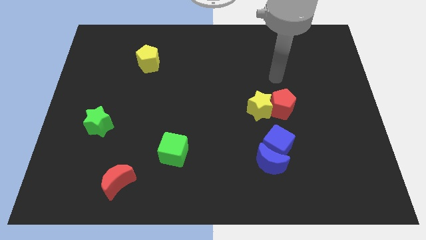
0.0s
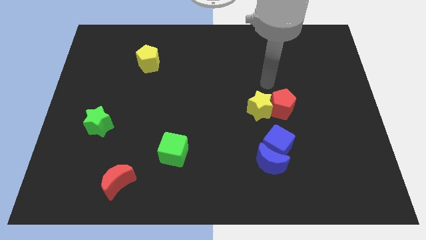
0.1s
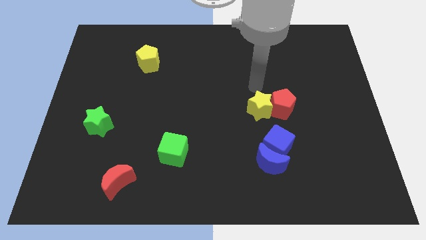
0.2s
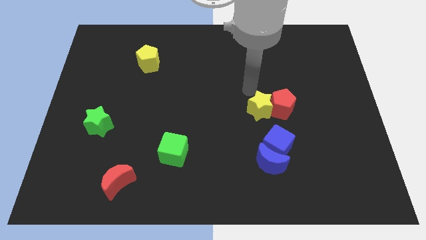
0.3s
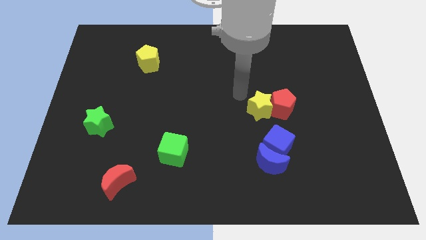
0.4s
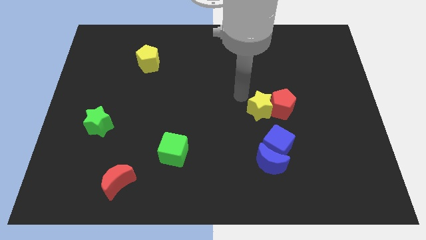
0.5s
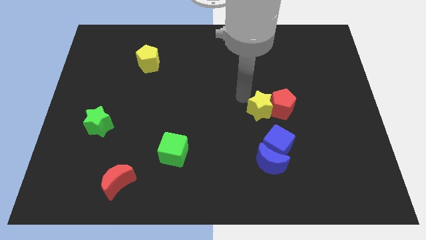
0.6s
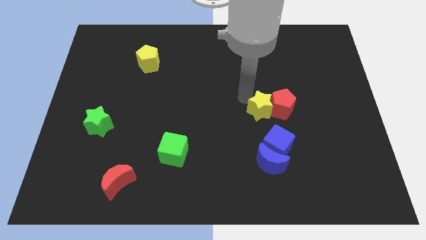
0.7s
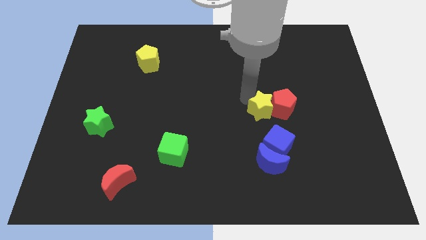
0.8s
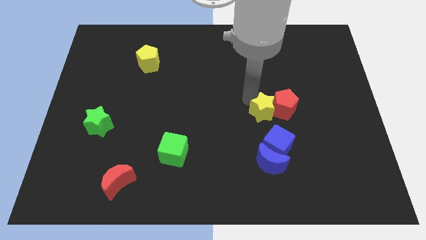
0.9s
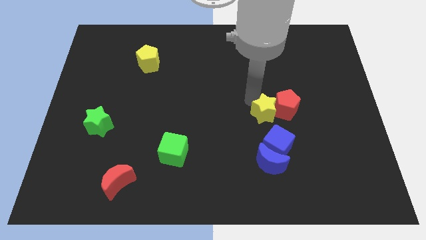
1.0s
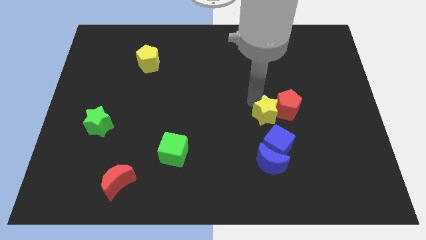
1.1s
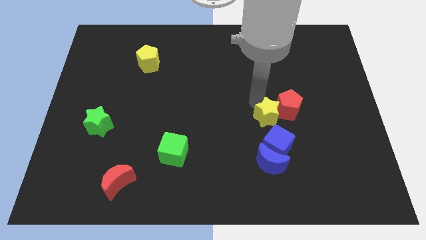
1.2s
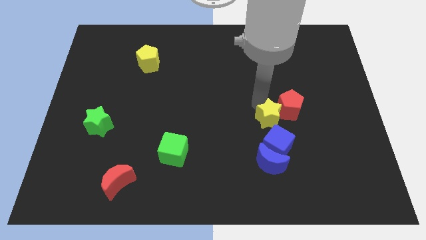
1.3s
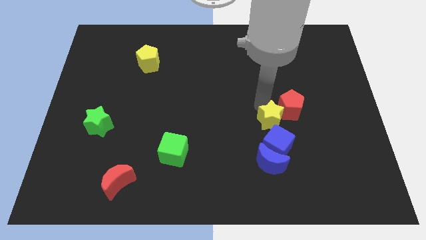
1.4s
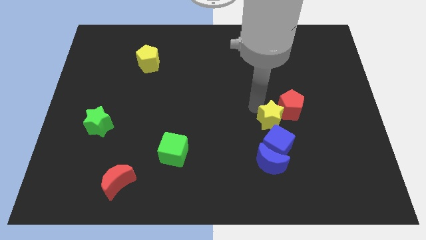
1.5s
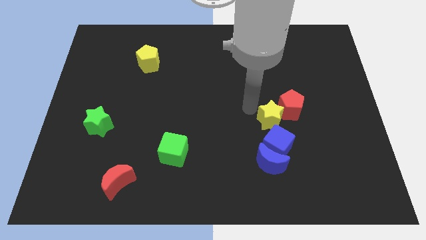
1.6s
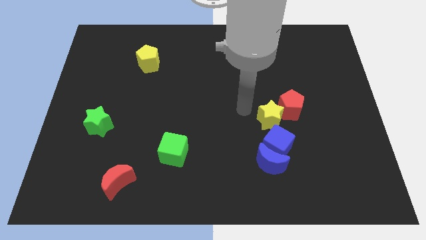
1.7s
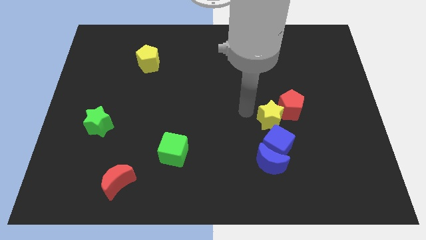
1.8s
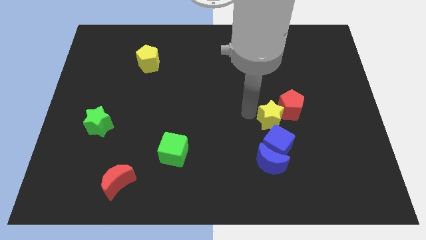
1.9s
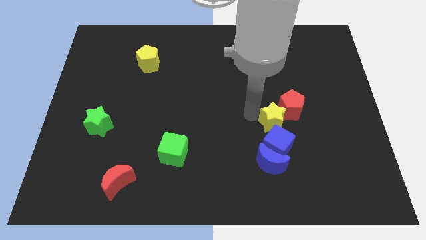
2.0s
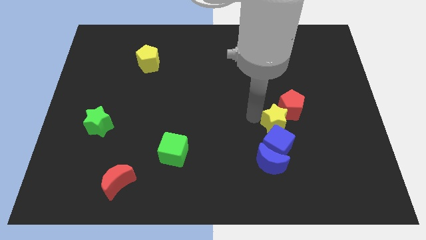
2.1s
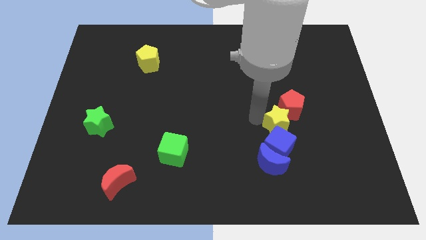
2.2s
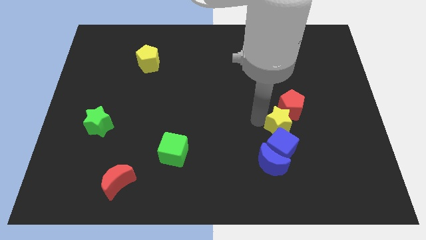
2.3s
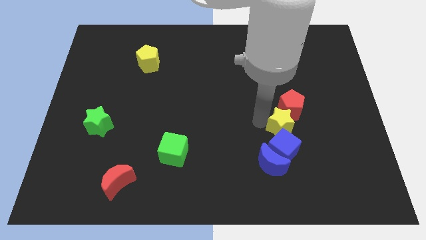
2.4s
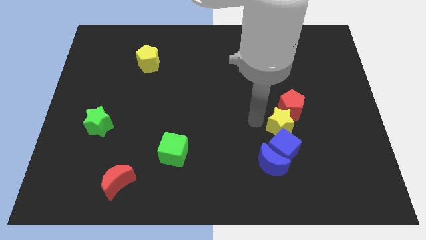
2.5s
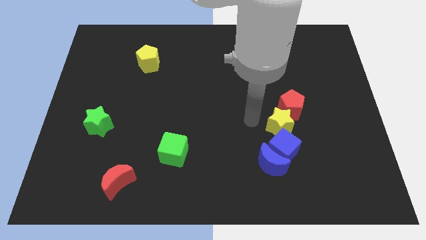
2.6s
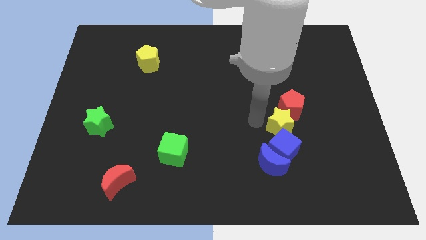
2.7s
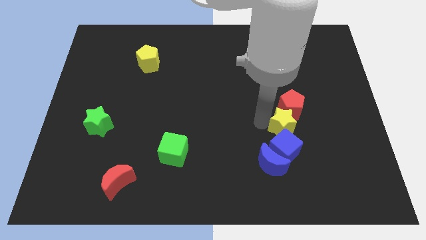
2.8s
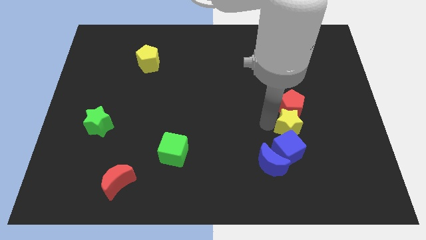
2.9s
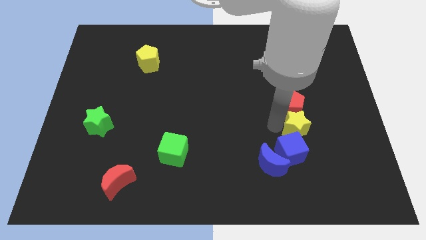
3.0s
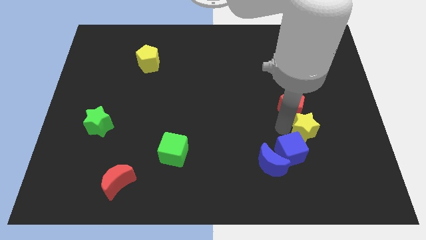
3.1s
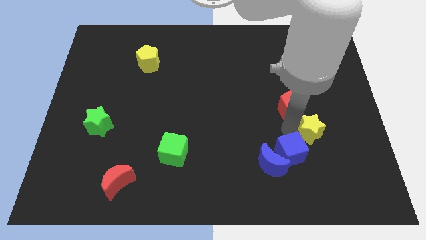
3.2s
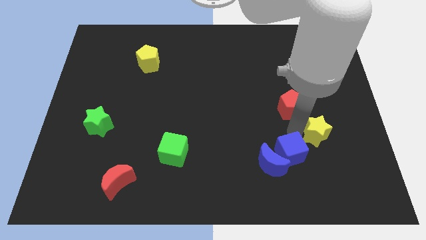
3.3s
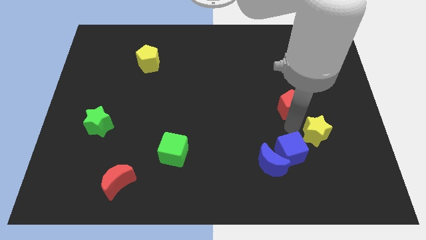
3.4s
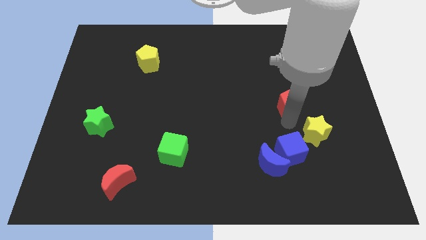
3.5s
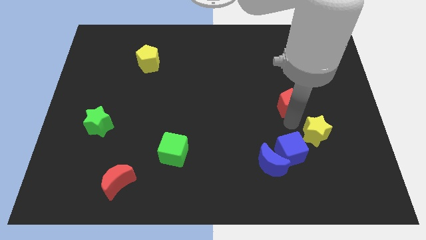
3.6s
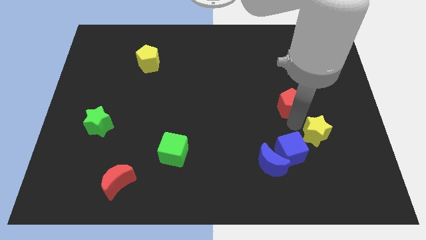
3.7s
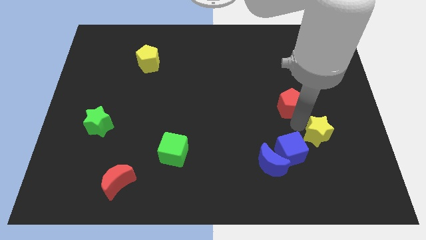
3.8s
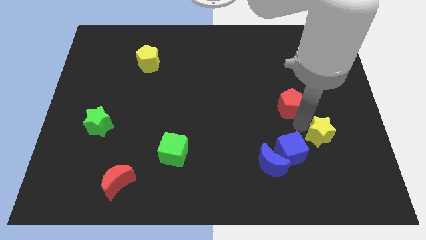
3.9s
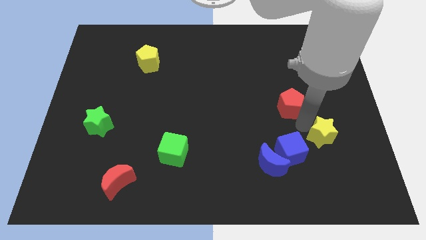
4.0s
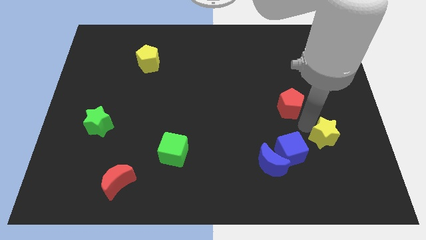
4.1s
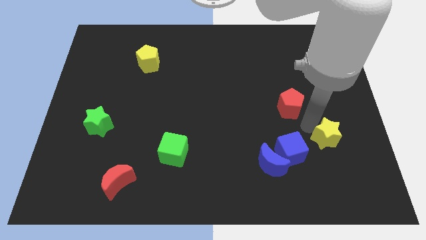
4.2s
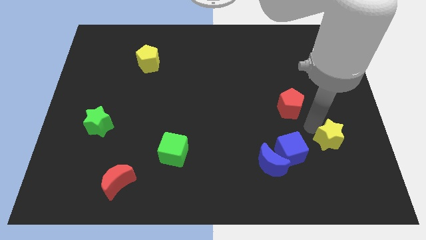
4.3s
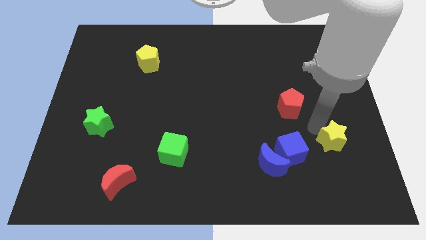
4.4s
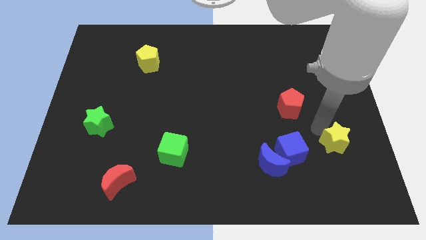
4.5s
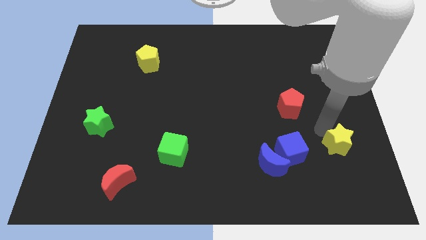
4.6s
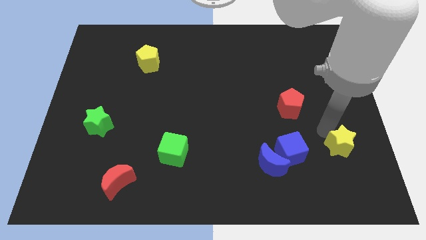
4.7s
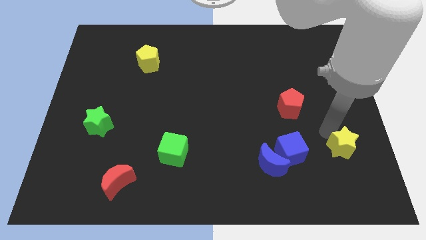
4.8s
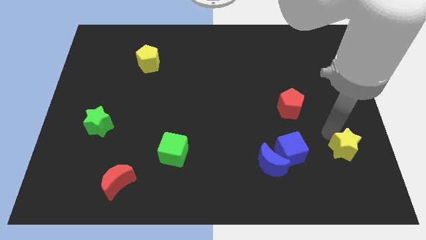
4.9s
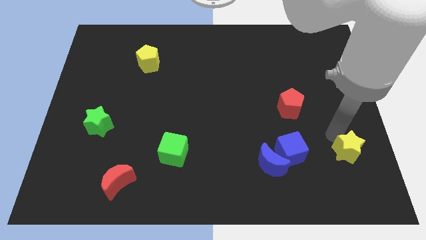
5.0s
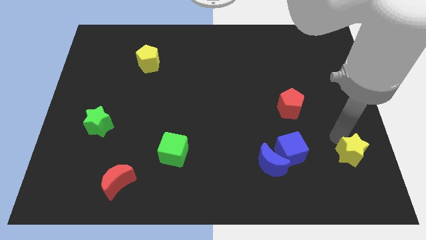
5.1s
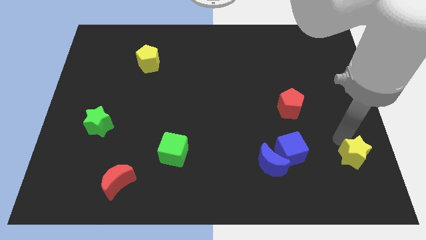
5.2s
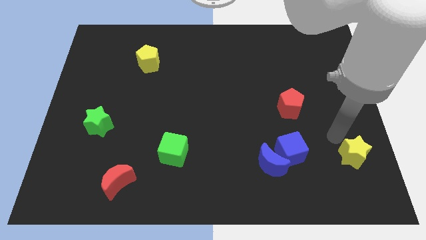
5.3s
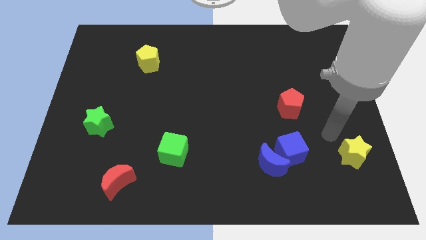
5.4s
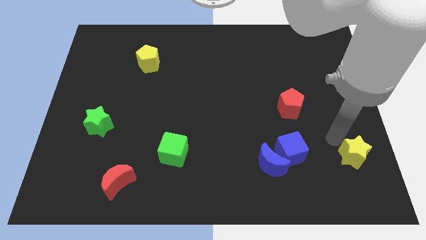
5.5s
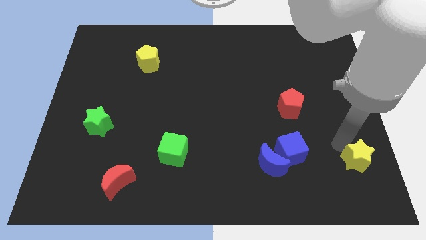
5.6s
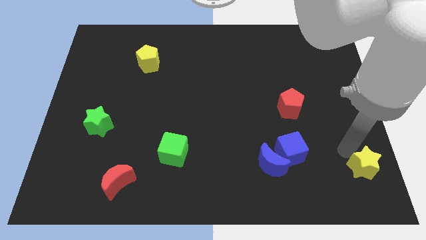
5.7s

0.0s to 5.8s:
push the yellow star to the bottom right

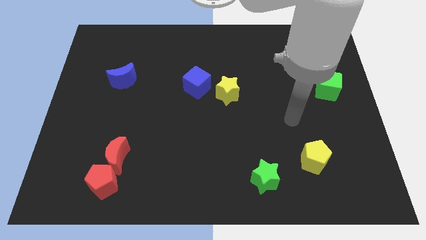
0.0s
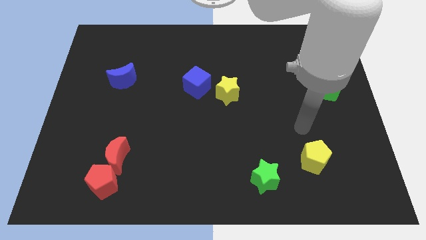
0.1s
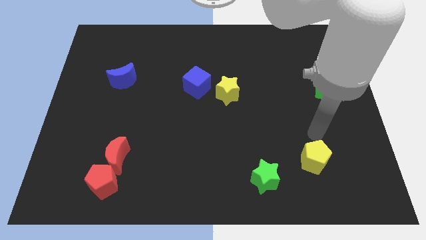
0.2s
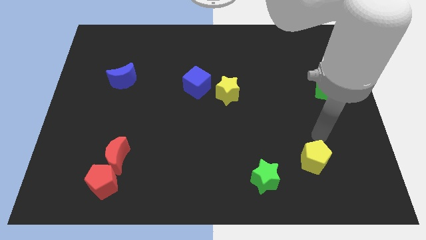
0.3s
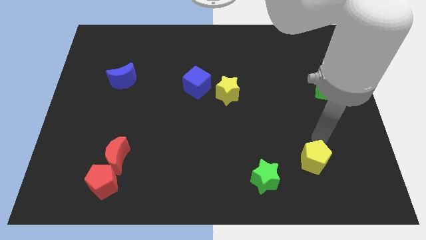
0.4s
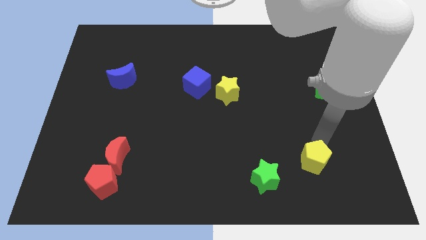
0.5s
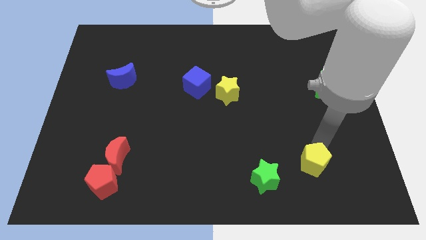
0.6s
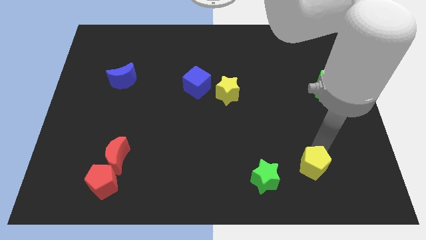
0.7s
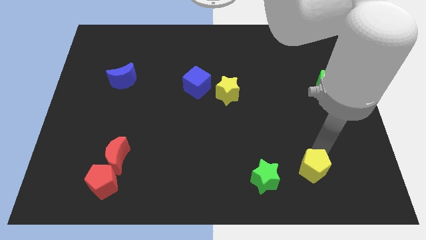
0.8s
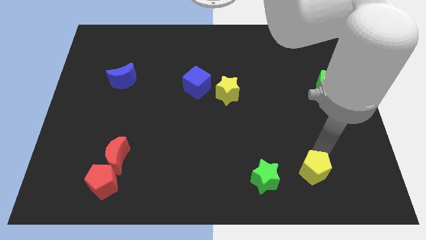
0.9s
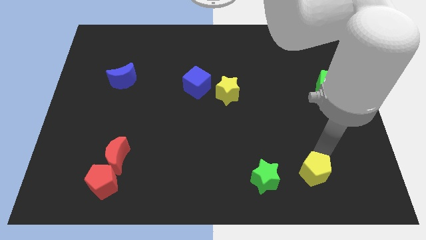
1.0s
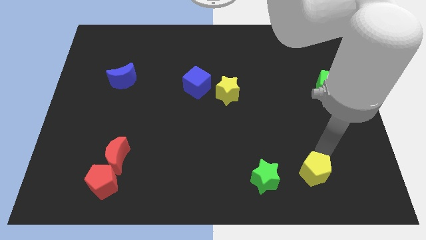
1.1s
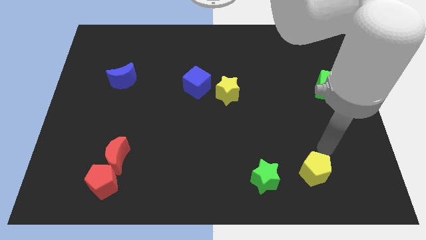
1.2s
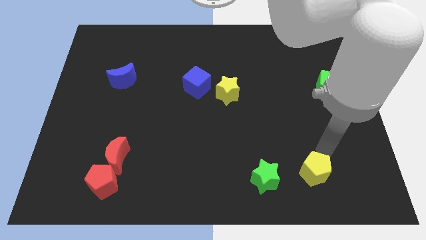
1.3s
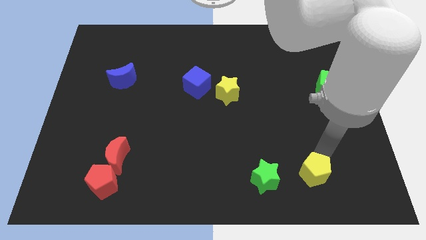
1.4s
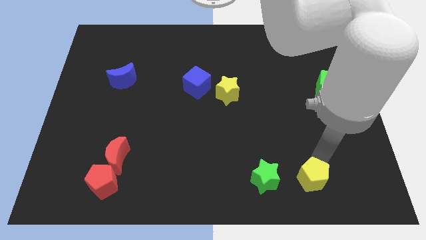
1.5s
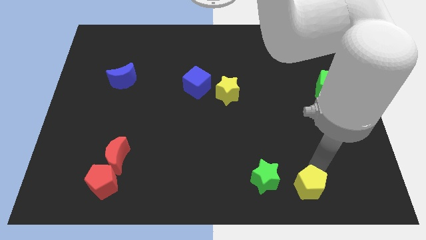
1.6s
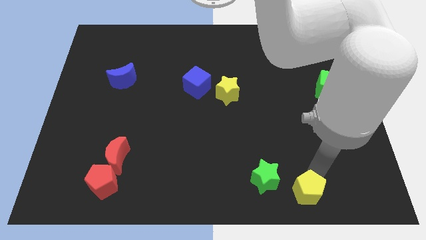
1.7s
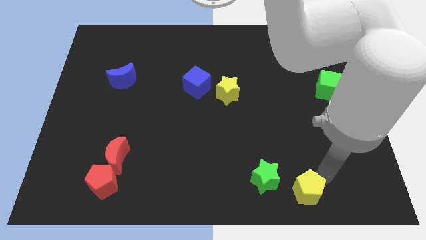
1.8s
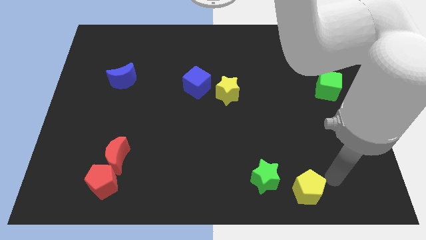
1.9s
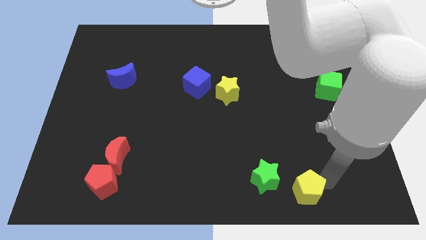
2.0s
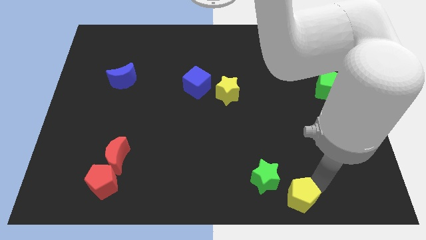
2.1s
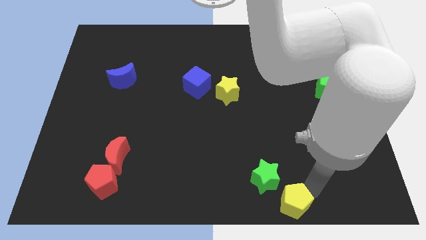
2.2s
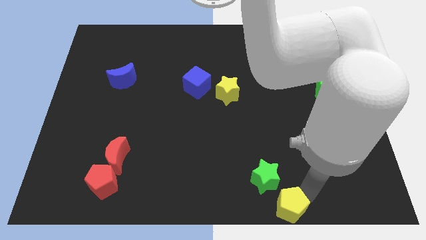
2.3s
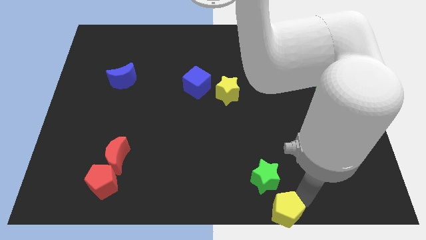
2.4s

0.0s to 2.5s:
push the yellow pentagon to the bottom

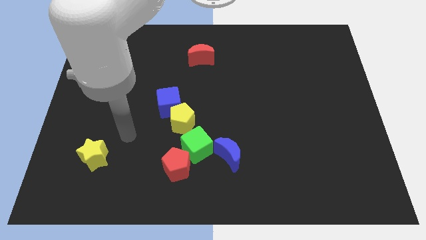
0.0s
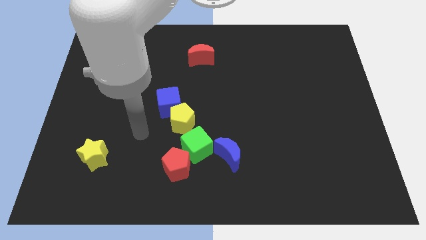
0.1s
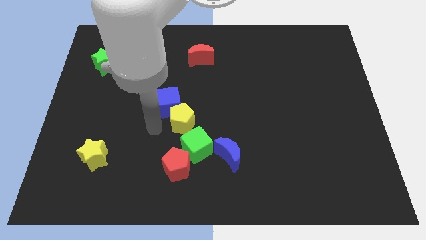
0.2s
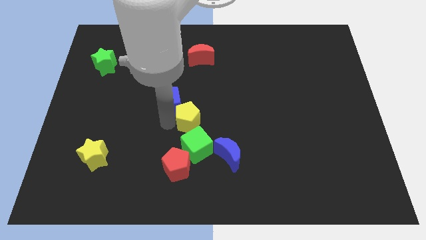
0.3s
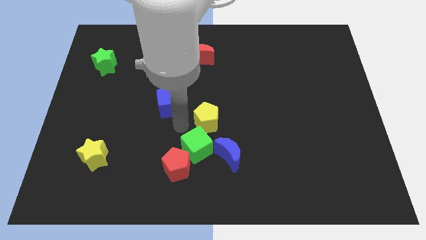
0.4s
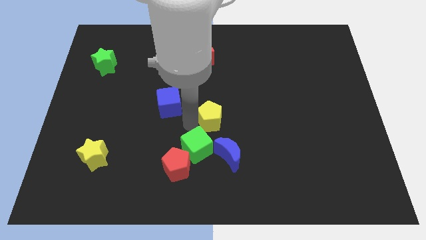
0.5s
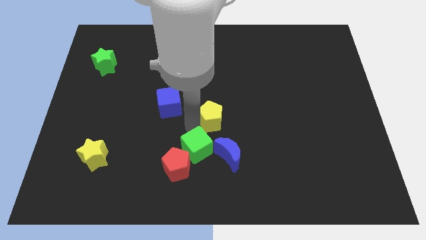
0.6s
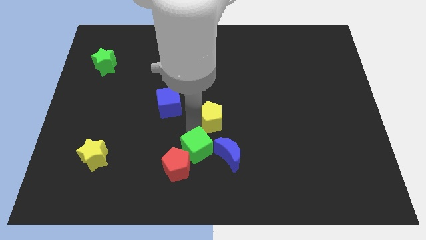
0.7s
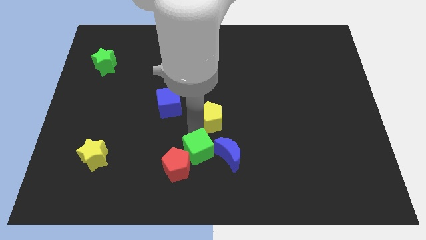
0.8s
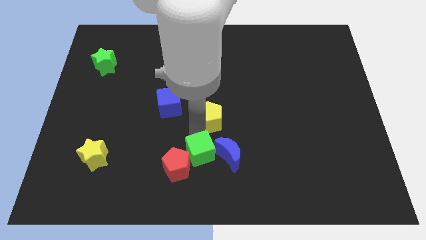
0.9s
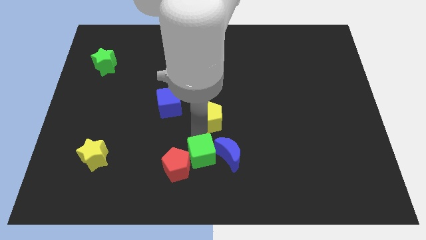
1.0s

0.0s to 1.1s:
slide the green cube to the bottom
